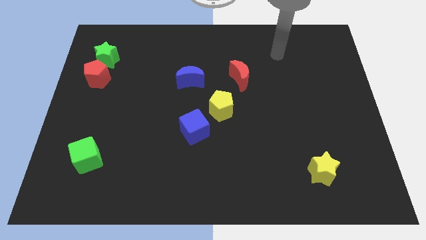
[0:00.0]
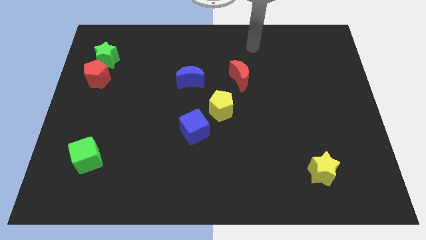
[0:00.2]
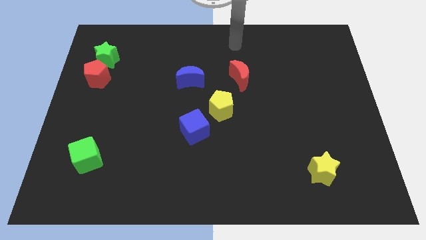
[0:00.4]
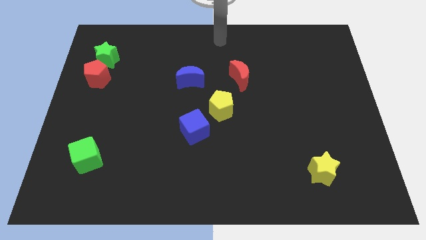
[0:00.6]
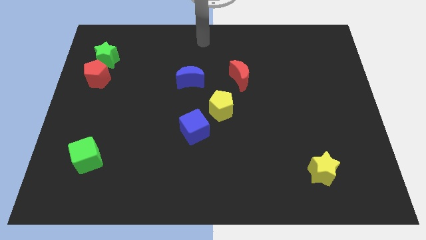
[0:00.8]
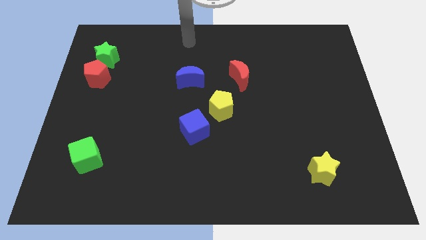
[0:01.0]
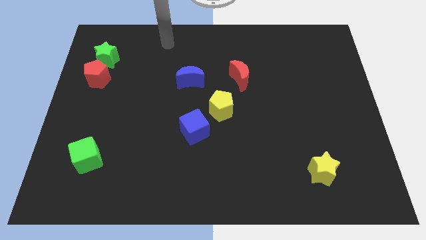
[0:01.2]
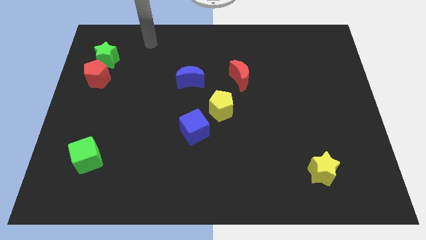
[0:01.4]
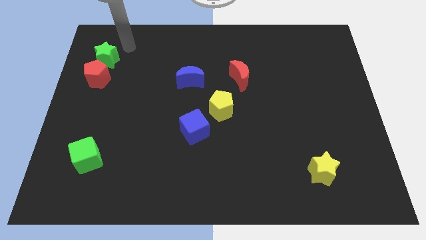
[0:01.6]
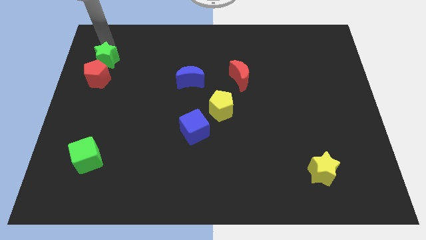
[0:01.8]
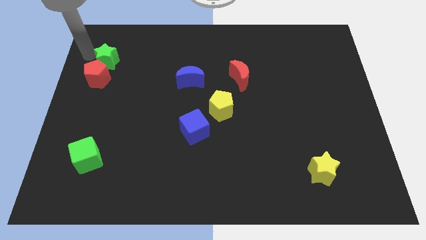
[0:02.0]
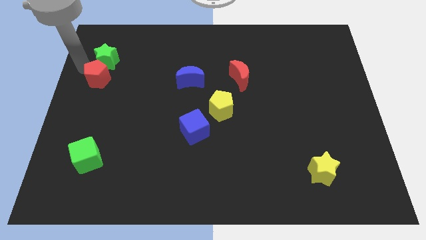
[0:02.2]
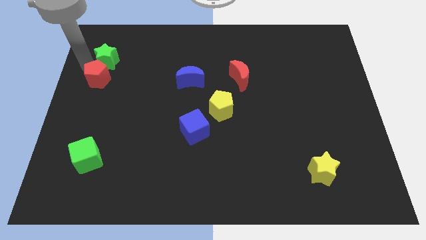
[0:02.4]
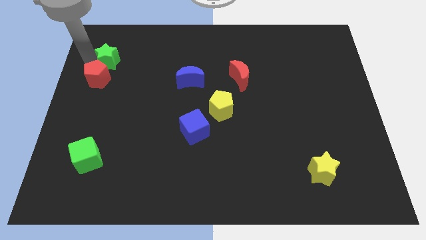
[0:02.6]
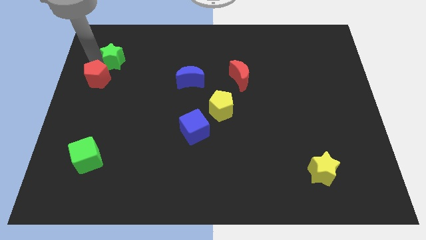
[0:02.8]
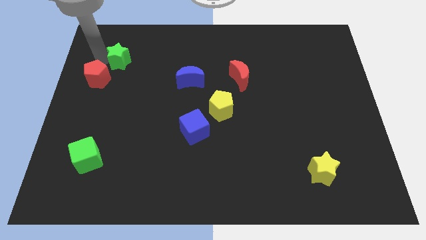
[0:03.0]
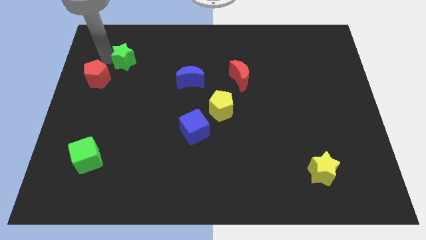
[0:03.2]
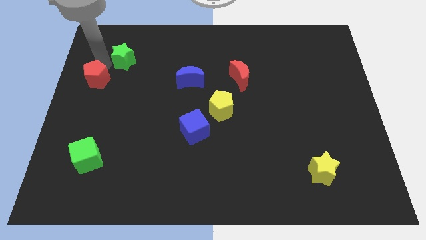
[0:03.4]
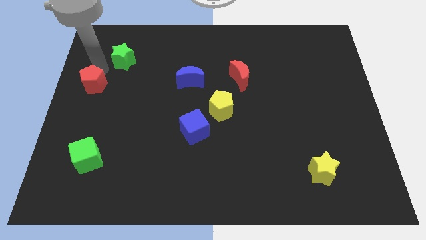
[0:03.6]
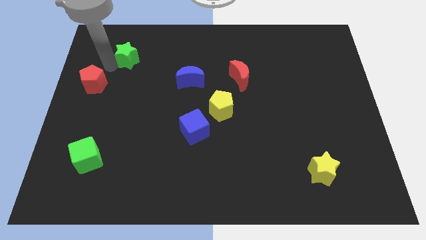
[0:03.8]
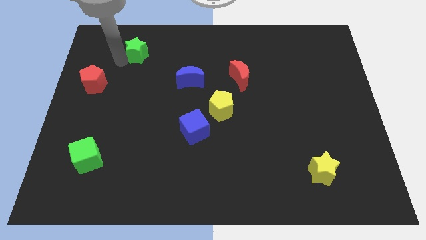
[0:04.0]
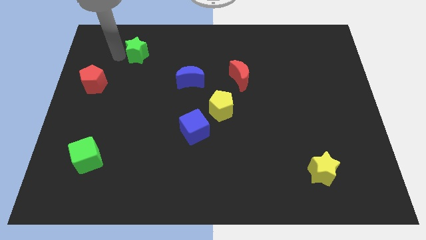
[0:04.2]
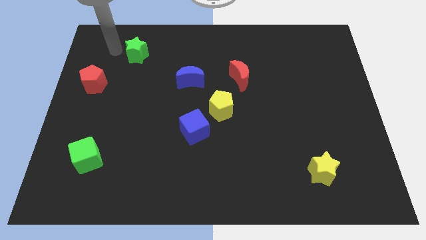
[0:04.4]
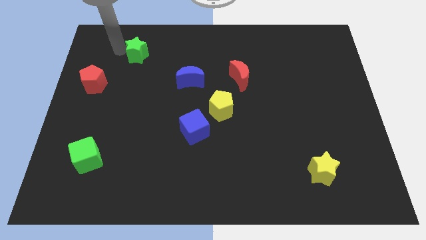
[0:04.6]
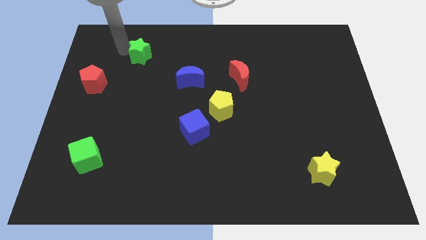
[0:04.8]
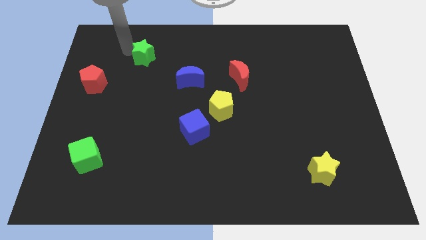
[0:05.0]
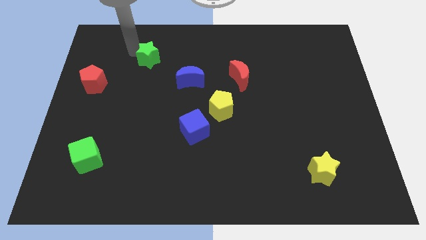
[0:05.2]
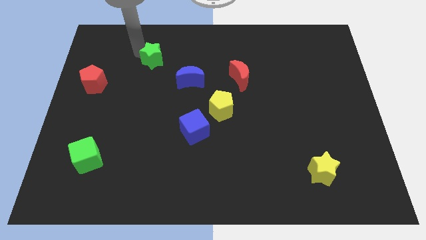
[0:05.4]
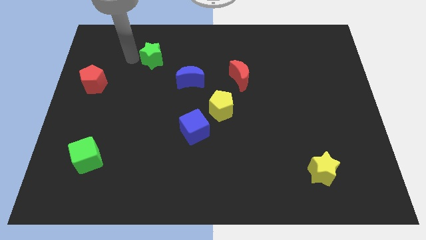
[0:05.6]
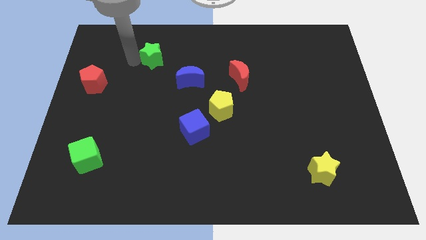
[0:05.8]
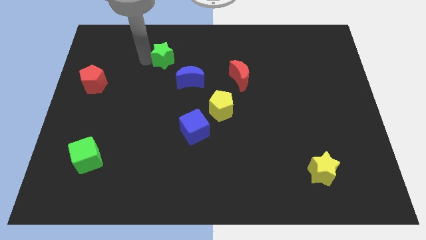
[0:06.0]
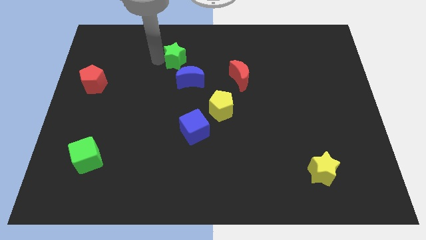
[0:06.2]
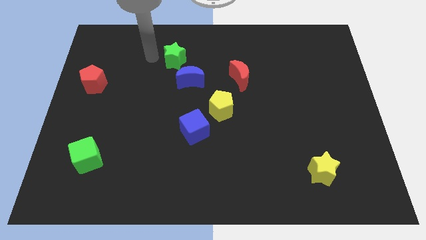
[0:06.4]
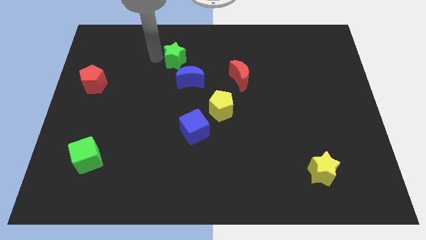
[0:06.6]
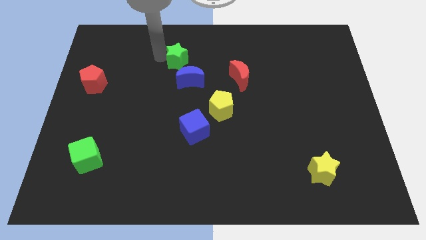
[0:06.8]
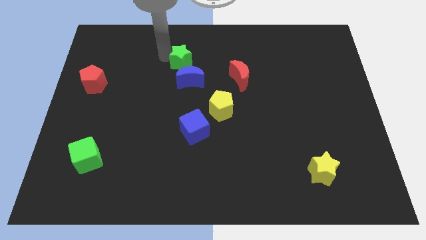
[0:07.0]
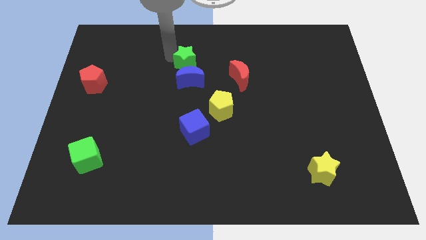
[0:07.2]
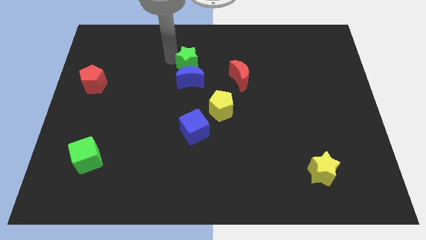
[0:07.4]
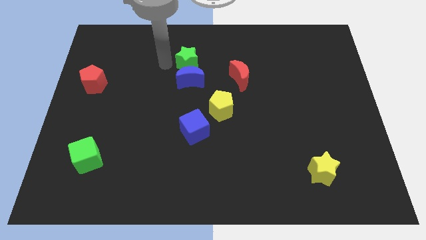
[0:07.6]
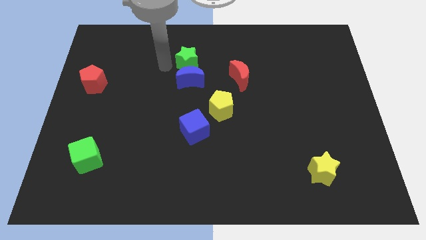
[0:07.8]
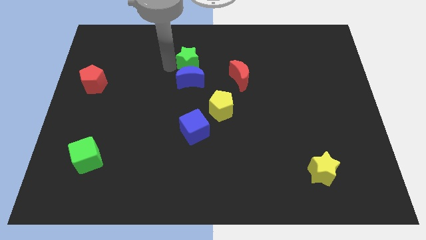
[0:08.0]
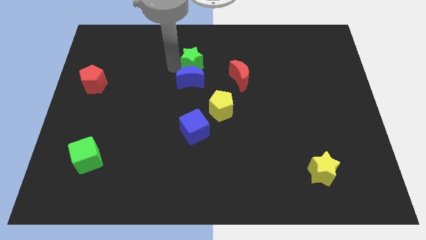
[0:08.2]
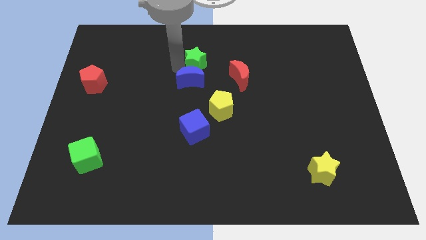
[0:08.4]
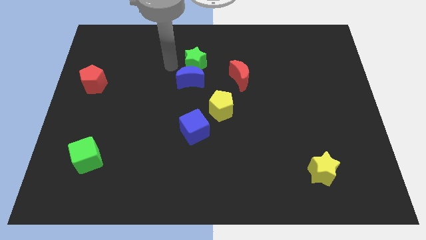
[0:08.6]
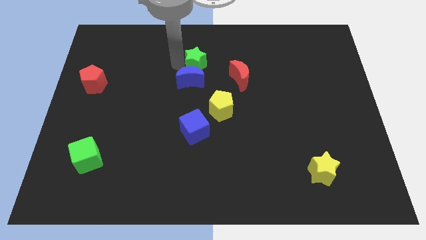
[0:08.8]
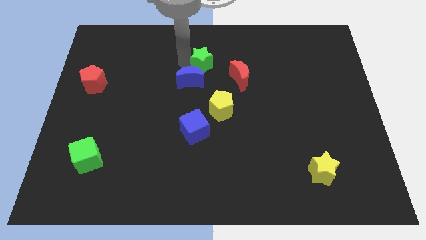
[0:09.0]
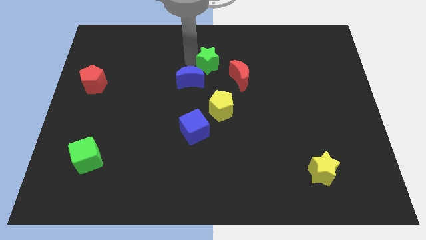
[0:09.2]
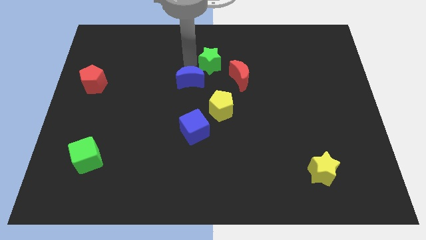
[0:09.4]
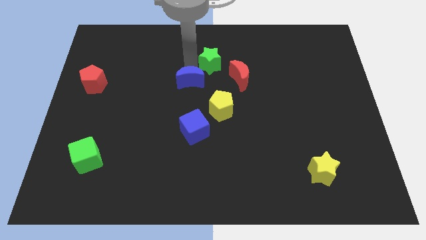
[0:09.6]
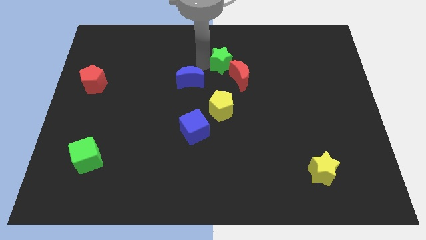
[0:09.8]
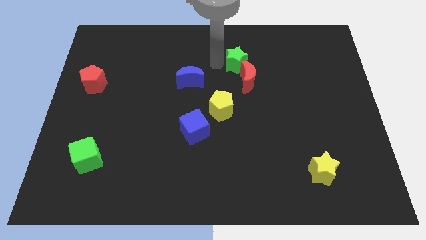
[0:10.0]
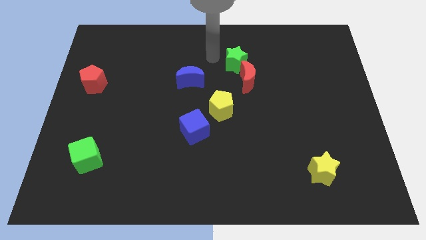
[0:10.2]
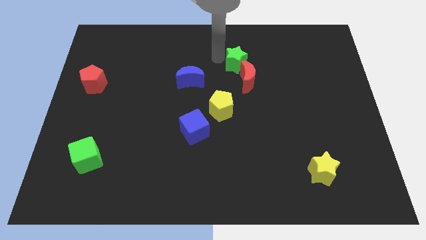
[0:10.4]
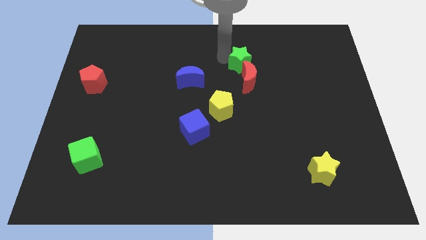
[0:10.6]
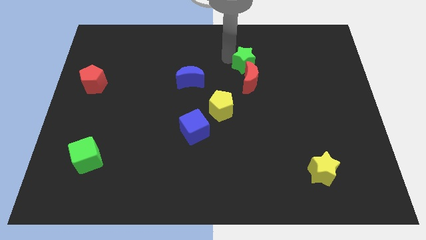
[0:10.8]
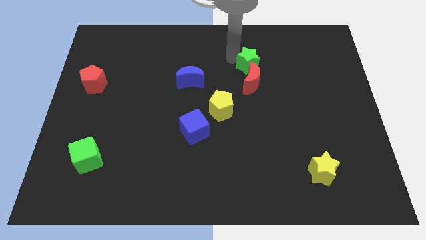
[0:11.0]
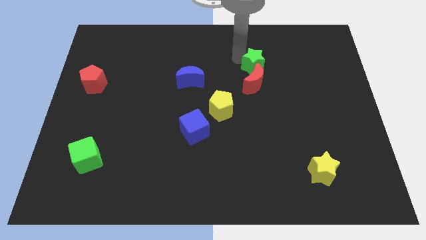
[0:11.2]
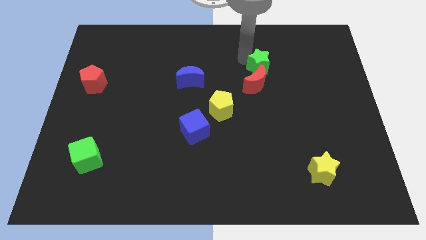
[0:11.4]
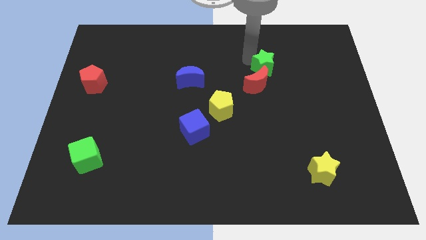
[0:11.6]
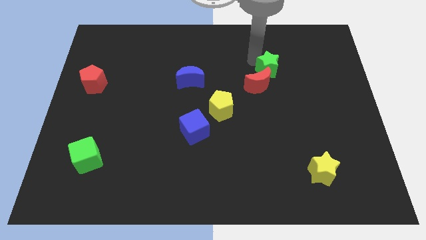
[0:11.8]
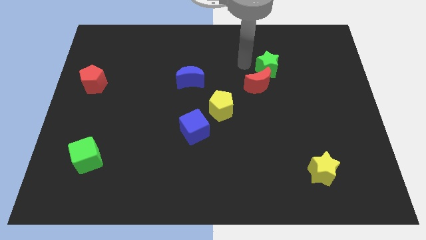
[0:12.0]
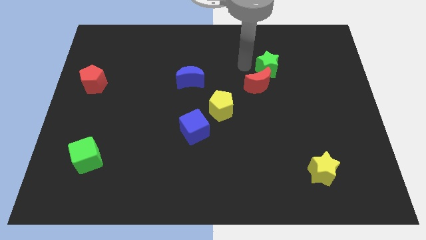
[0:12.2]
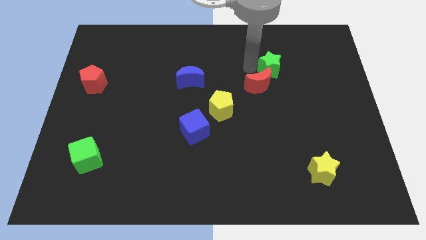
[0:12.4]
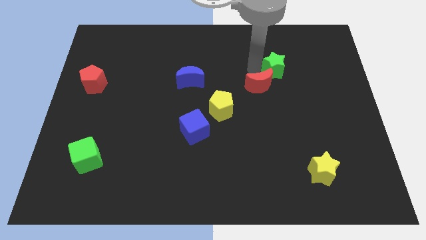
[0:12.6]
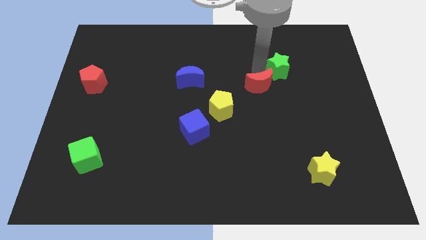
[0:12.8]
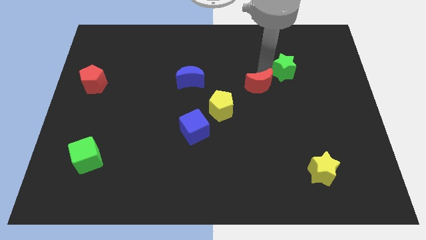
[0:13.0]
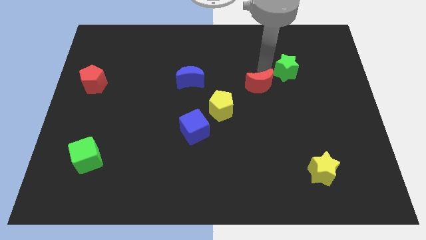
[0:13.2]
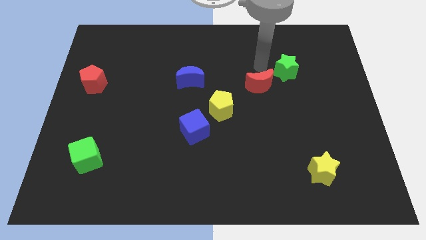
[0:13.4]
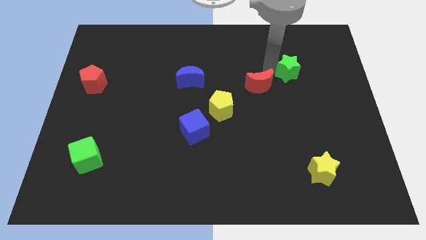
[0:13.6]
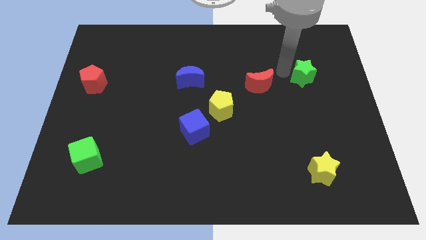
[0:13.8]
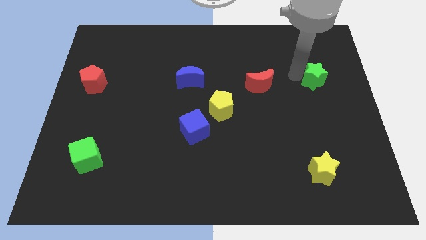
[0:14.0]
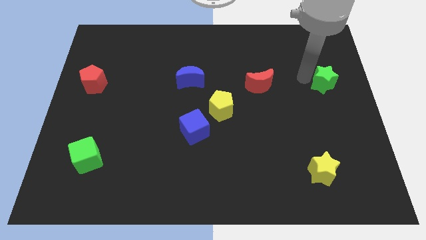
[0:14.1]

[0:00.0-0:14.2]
move the green star to the center right
